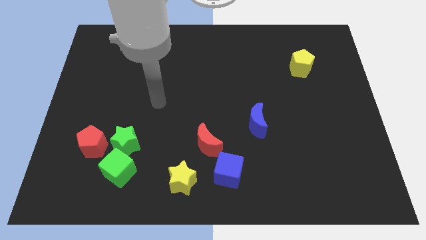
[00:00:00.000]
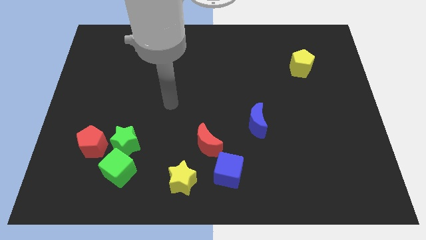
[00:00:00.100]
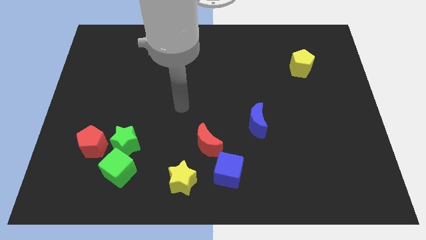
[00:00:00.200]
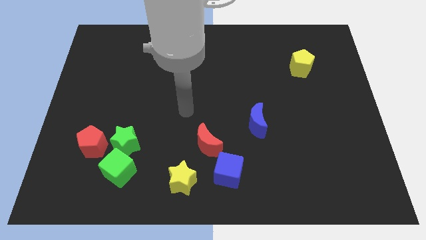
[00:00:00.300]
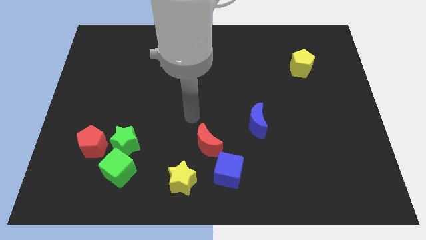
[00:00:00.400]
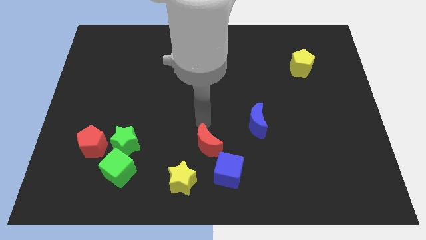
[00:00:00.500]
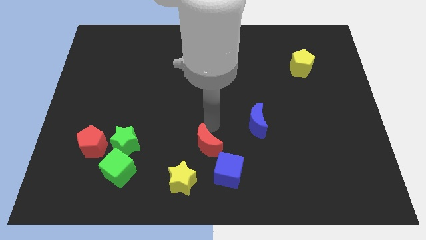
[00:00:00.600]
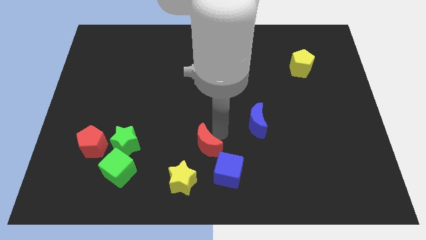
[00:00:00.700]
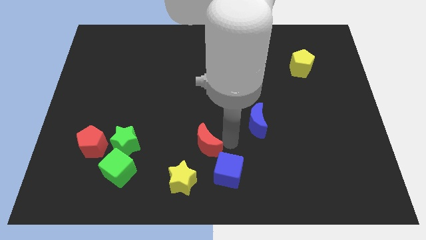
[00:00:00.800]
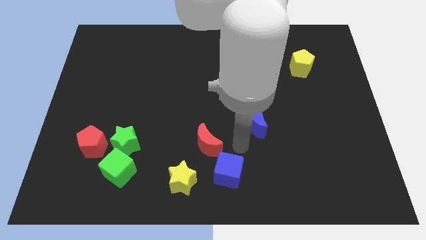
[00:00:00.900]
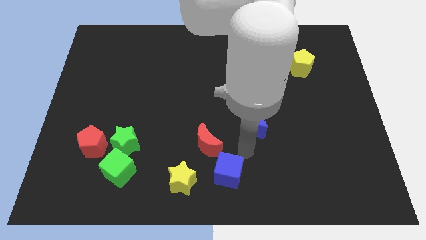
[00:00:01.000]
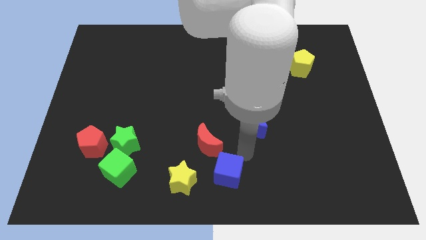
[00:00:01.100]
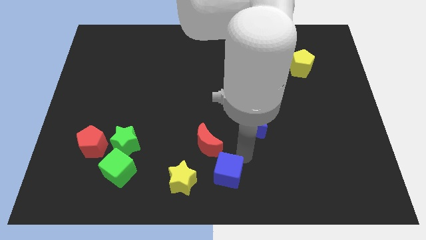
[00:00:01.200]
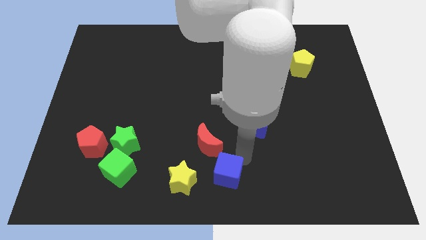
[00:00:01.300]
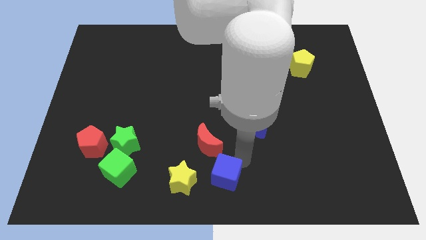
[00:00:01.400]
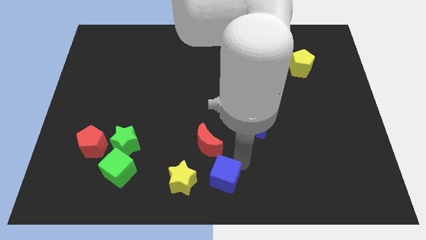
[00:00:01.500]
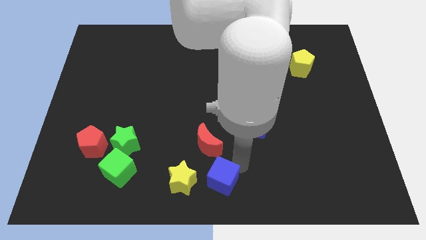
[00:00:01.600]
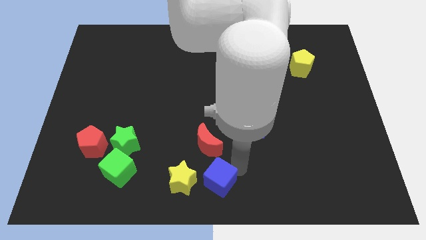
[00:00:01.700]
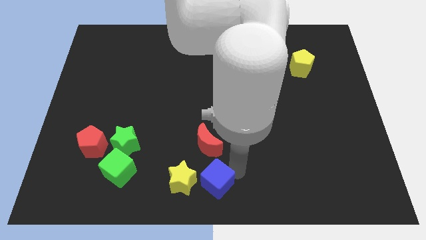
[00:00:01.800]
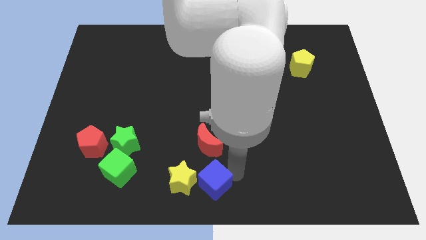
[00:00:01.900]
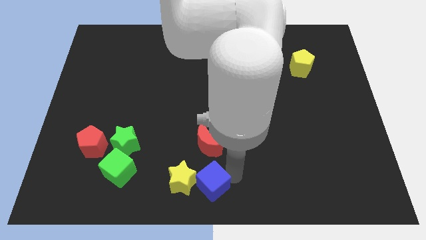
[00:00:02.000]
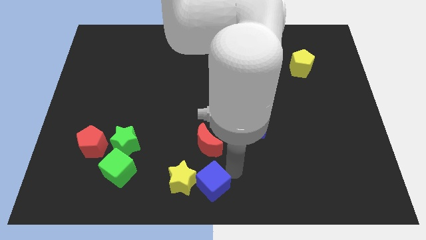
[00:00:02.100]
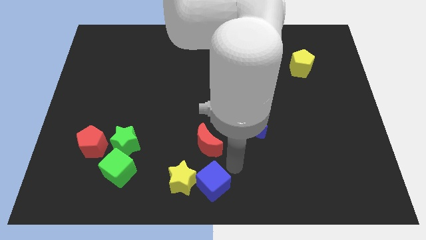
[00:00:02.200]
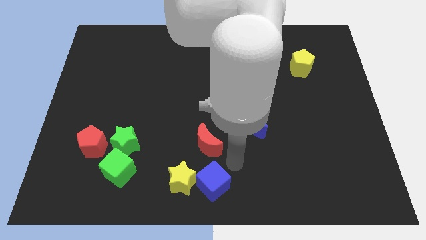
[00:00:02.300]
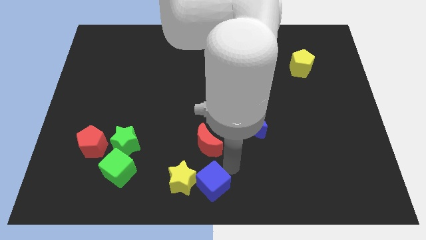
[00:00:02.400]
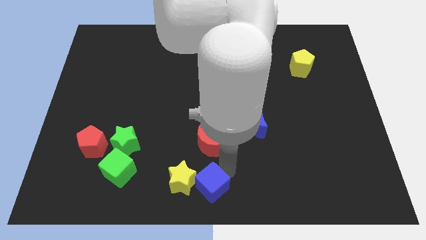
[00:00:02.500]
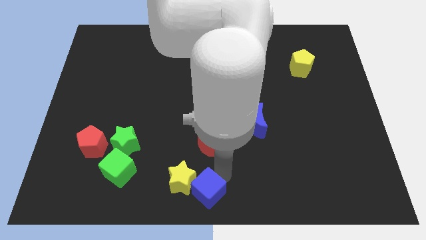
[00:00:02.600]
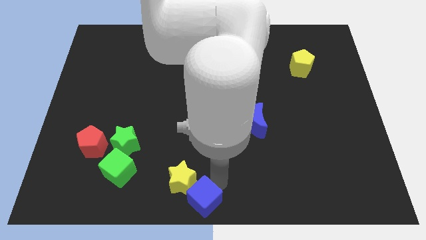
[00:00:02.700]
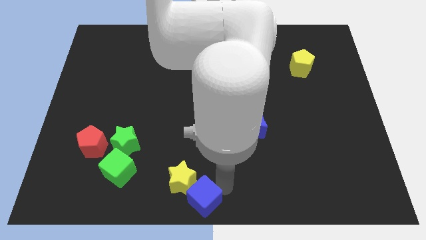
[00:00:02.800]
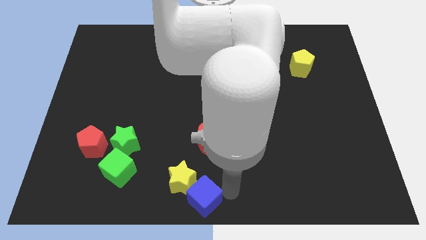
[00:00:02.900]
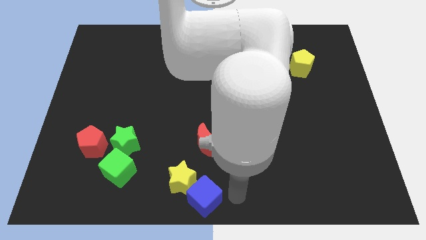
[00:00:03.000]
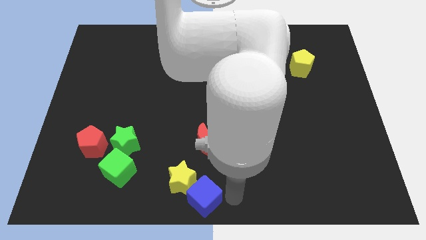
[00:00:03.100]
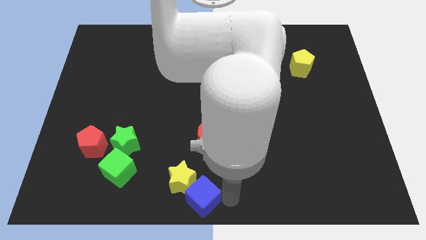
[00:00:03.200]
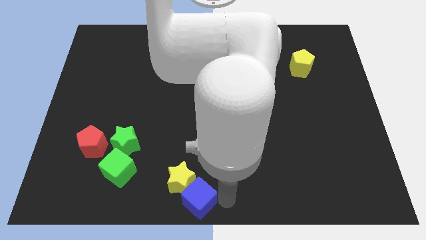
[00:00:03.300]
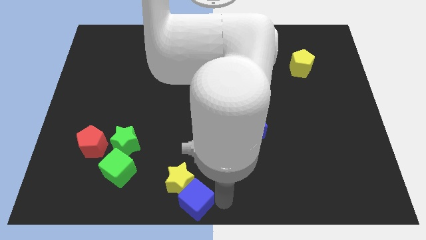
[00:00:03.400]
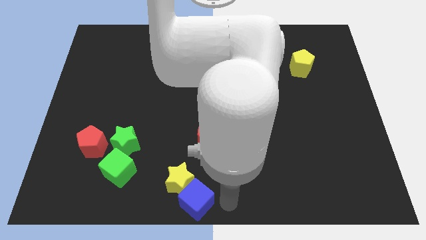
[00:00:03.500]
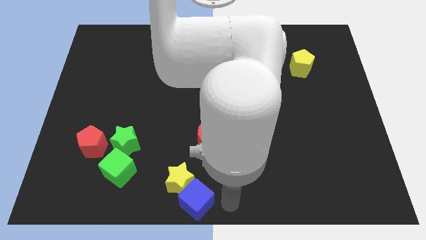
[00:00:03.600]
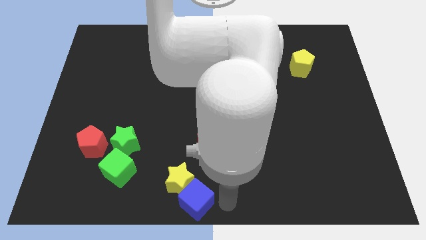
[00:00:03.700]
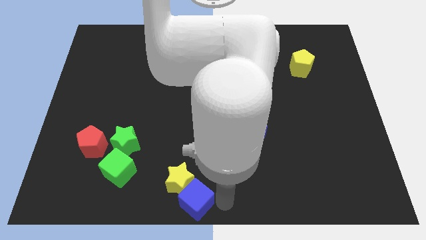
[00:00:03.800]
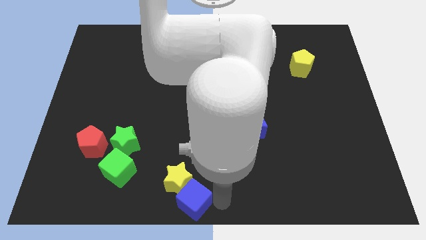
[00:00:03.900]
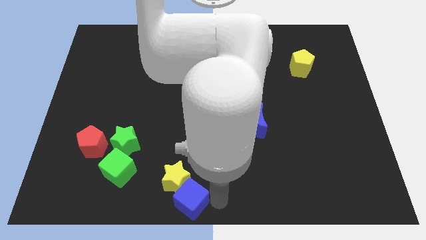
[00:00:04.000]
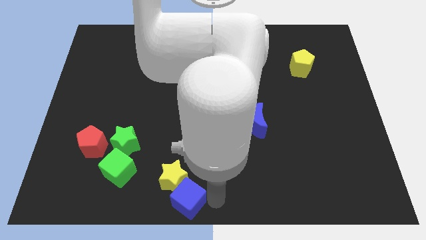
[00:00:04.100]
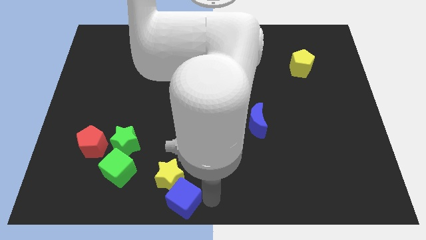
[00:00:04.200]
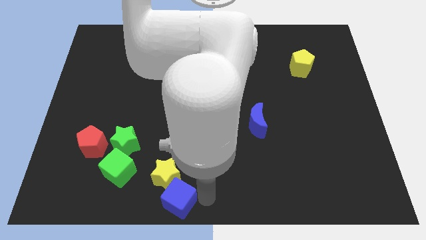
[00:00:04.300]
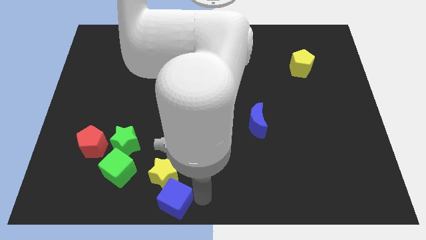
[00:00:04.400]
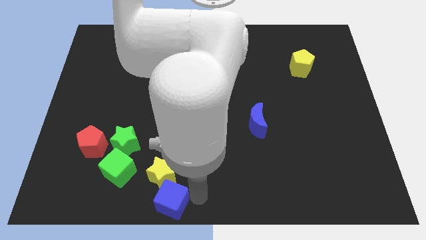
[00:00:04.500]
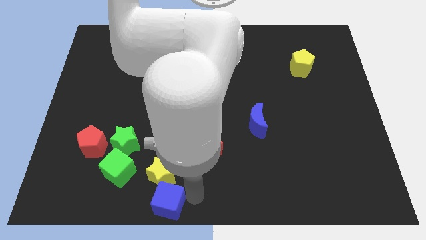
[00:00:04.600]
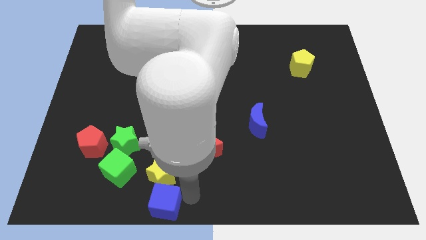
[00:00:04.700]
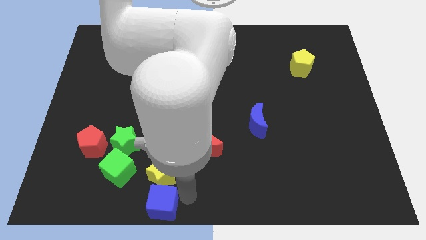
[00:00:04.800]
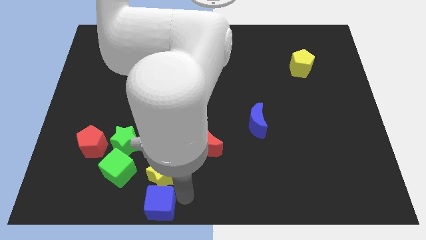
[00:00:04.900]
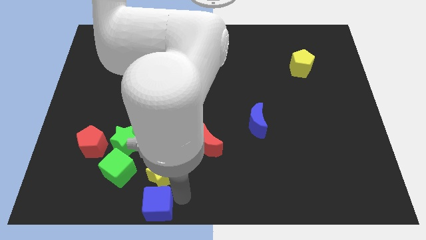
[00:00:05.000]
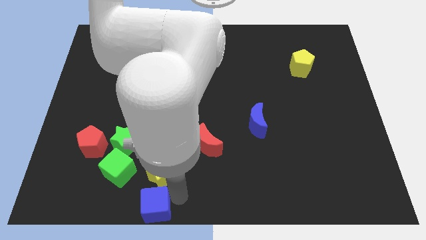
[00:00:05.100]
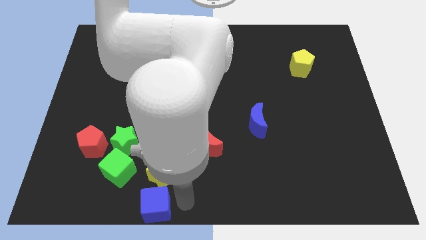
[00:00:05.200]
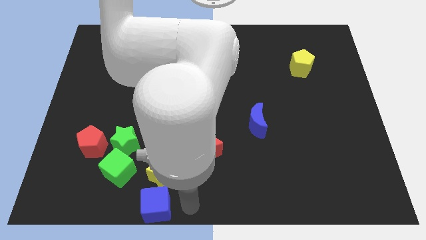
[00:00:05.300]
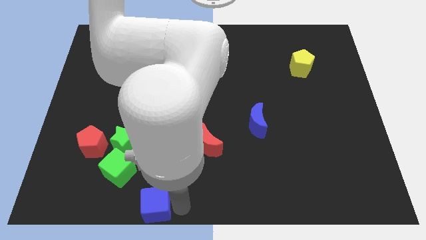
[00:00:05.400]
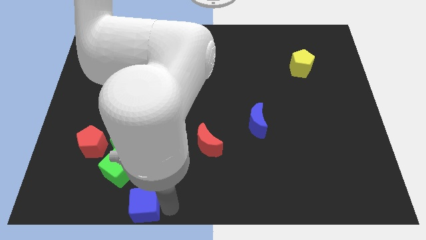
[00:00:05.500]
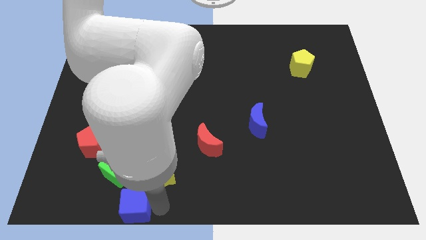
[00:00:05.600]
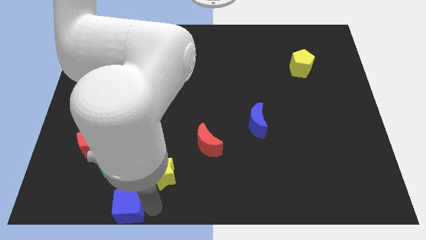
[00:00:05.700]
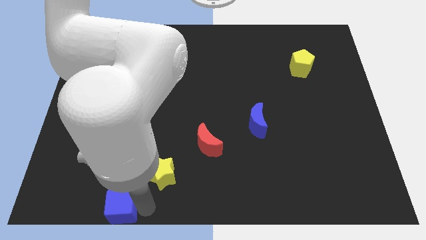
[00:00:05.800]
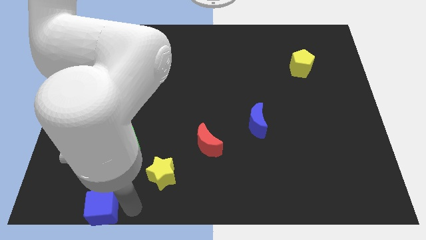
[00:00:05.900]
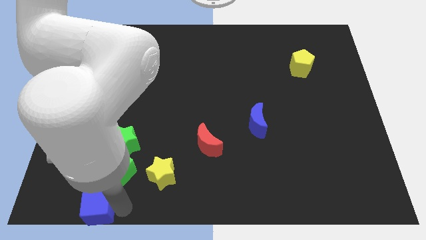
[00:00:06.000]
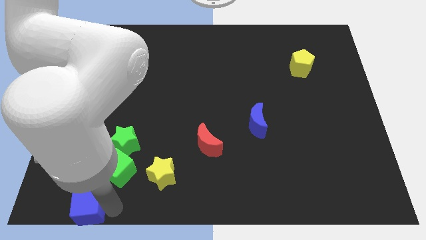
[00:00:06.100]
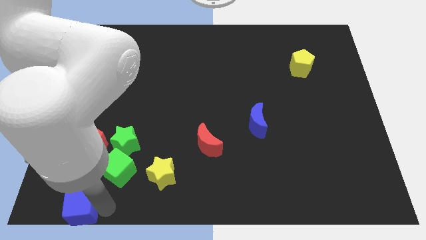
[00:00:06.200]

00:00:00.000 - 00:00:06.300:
push the blue cube to the bottom left corner

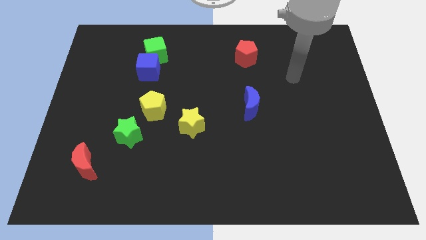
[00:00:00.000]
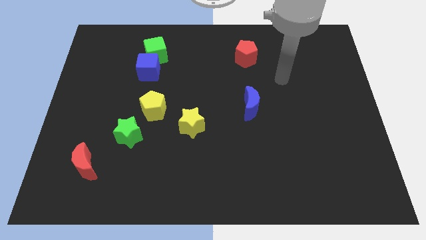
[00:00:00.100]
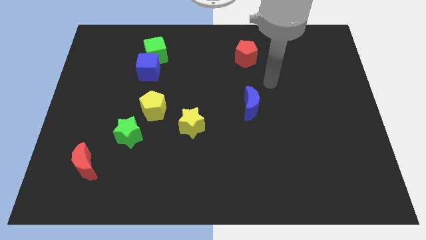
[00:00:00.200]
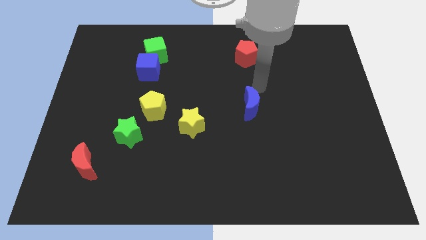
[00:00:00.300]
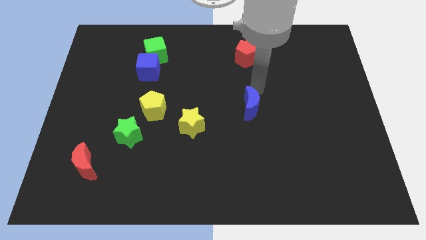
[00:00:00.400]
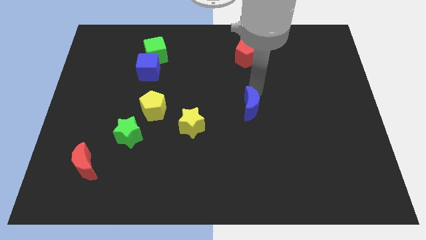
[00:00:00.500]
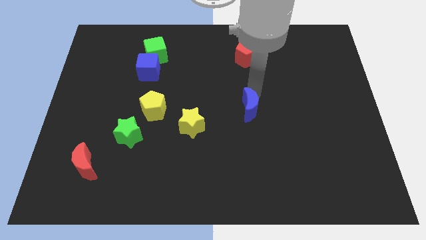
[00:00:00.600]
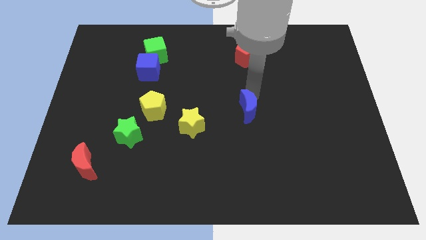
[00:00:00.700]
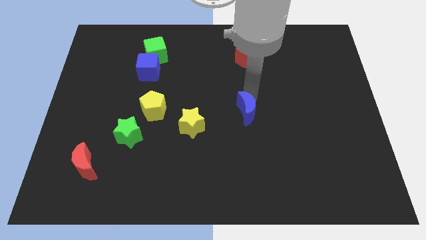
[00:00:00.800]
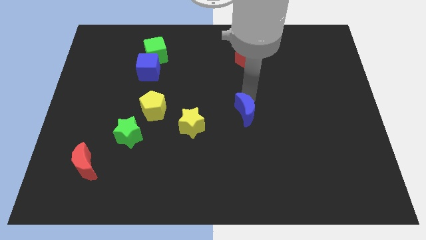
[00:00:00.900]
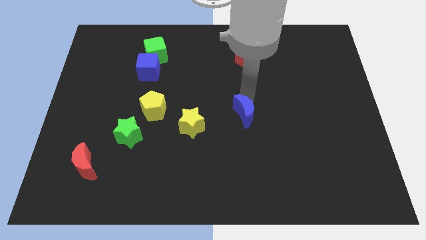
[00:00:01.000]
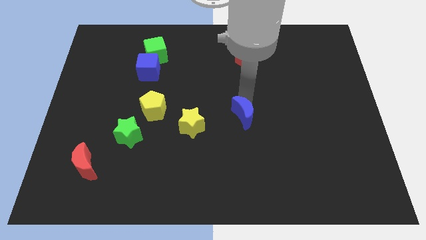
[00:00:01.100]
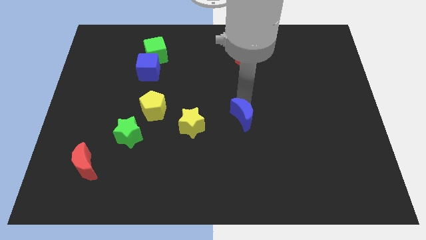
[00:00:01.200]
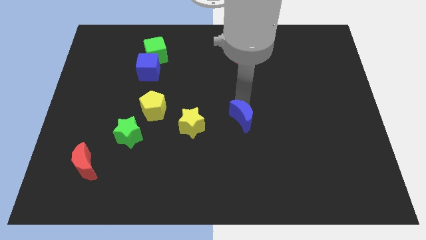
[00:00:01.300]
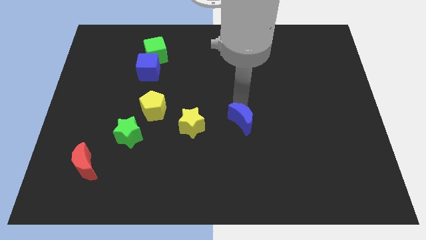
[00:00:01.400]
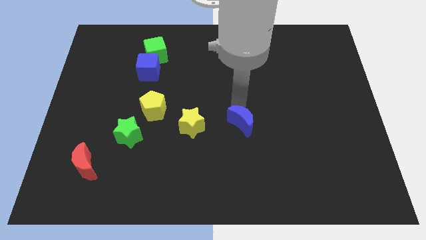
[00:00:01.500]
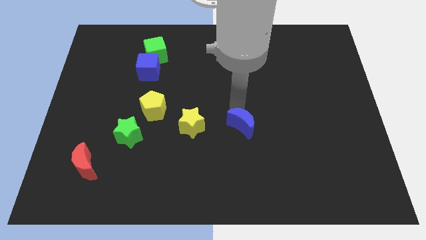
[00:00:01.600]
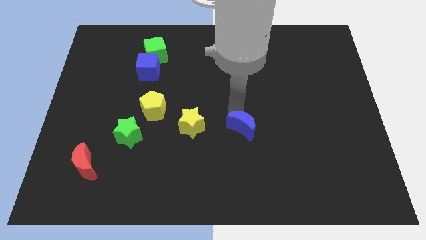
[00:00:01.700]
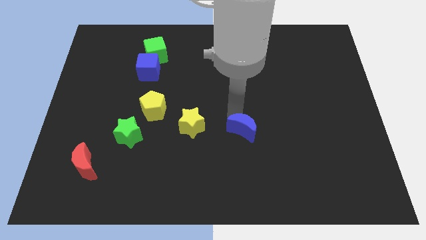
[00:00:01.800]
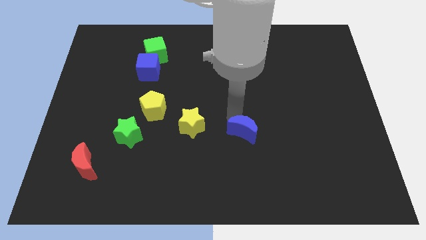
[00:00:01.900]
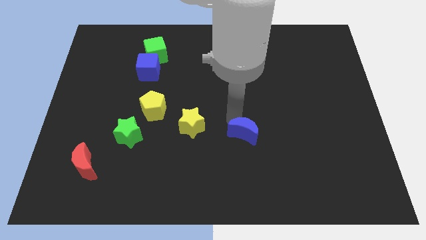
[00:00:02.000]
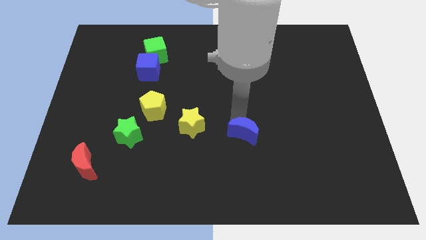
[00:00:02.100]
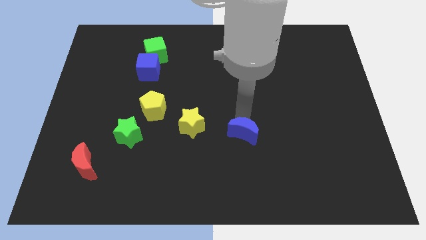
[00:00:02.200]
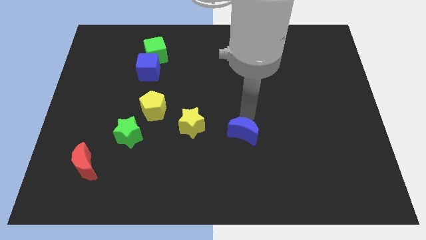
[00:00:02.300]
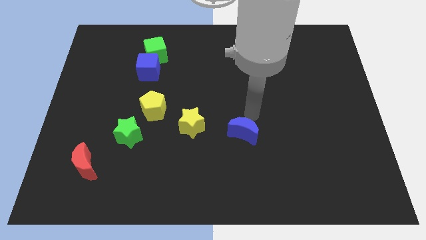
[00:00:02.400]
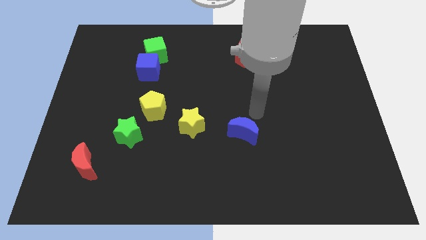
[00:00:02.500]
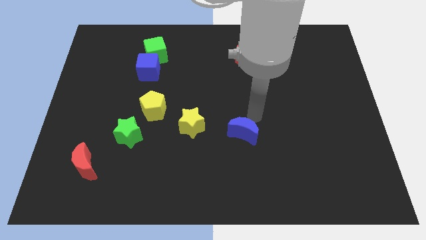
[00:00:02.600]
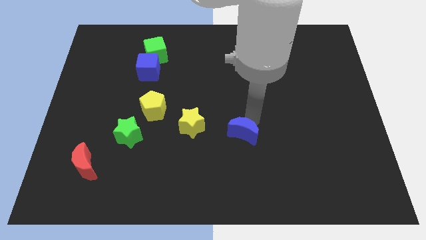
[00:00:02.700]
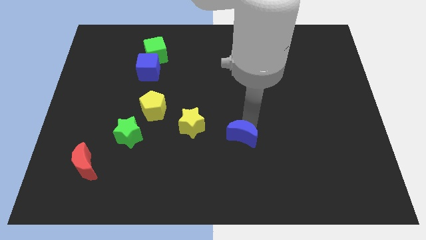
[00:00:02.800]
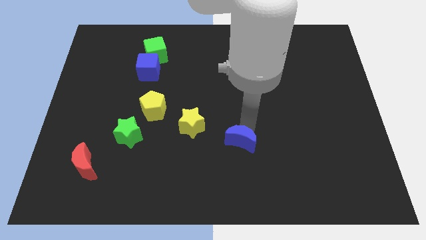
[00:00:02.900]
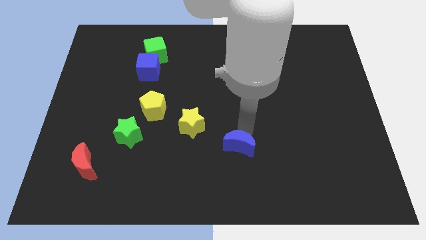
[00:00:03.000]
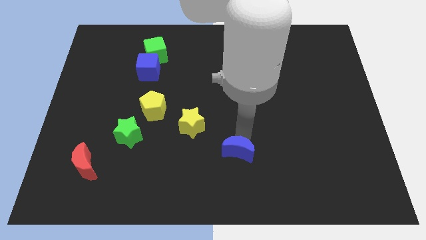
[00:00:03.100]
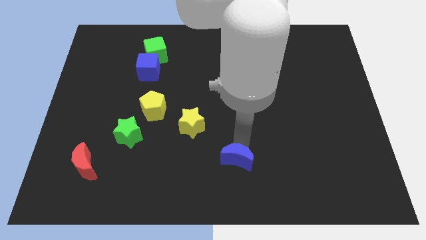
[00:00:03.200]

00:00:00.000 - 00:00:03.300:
slide the blue moon to the bottom
